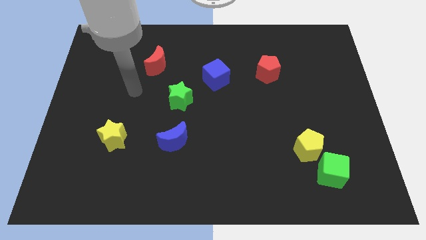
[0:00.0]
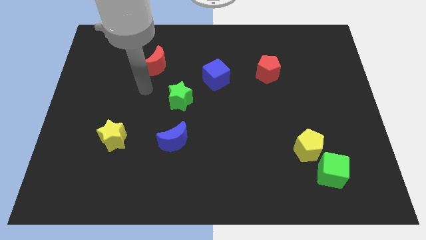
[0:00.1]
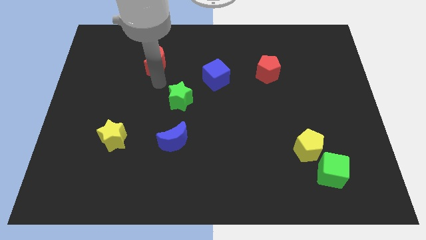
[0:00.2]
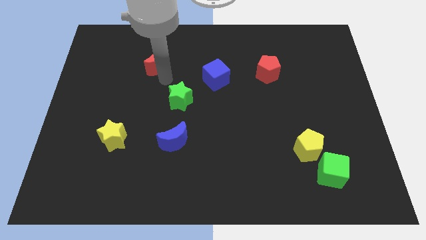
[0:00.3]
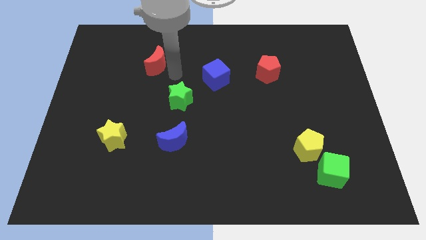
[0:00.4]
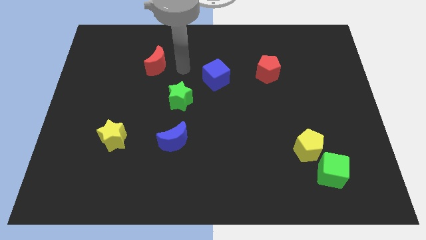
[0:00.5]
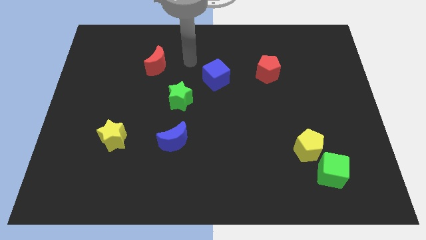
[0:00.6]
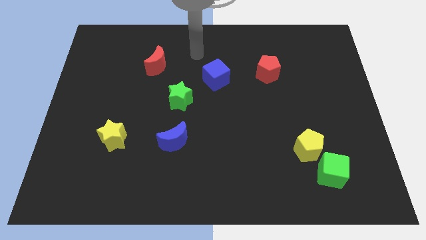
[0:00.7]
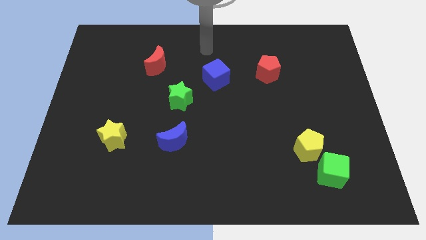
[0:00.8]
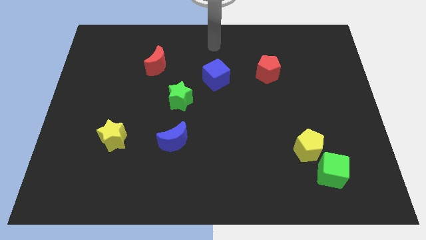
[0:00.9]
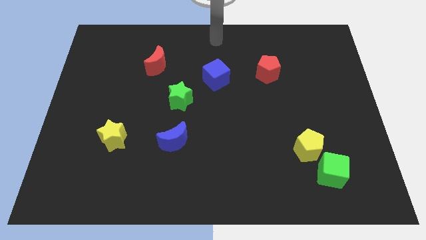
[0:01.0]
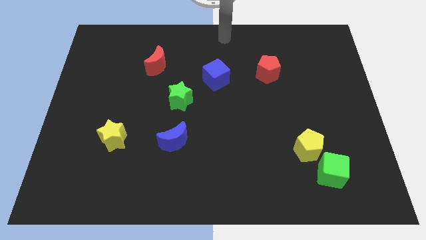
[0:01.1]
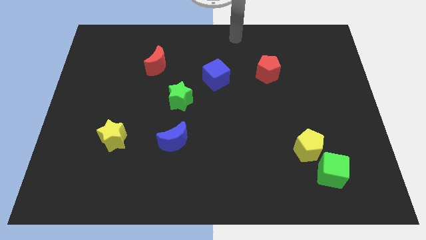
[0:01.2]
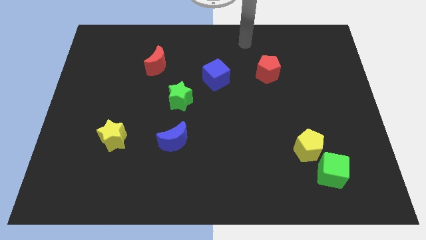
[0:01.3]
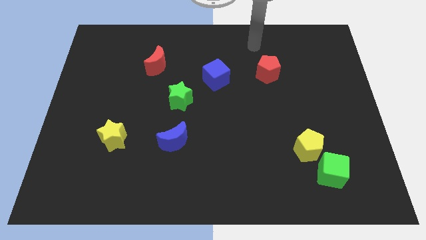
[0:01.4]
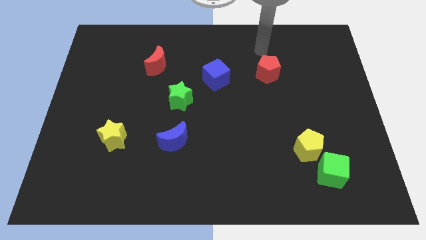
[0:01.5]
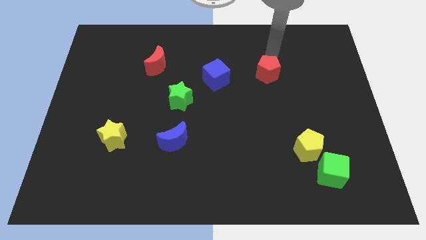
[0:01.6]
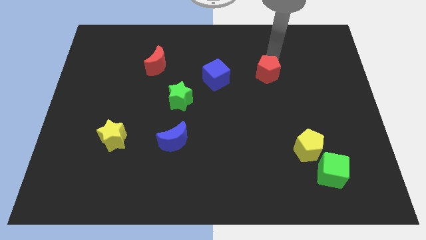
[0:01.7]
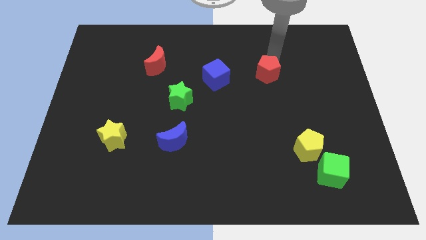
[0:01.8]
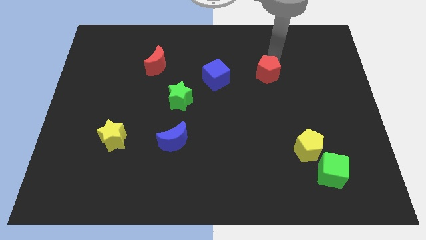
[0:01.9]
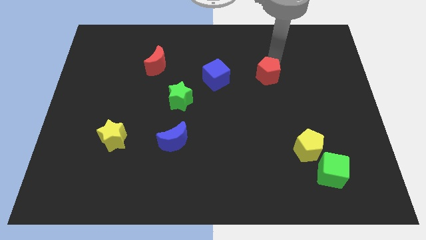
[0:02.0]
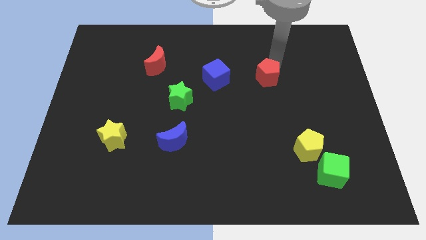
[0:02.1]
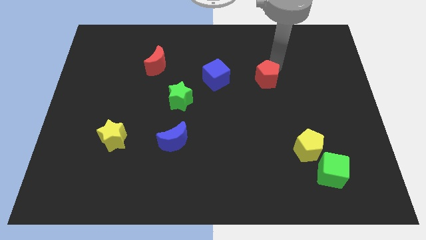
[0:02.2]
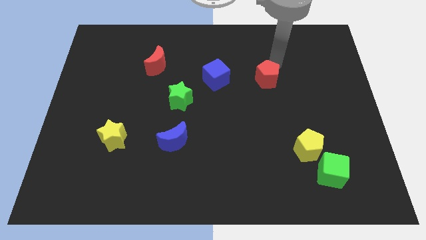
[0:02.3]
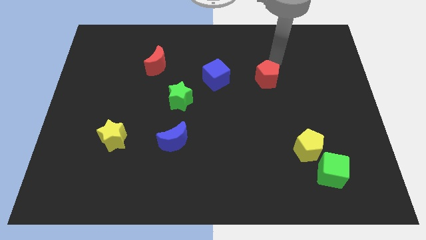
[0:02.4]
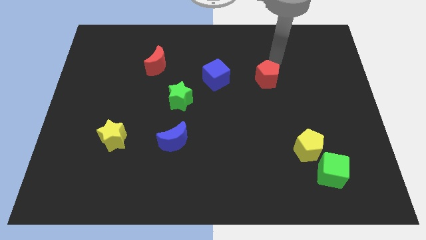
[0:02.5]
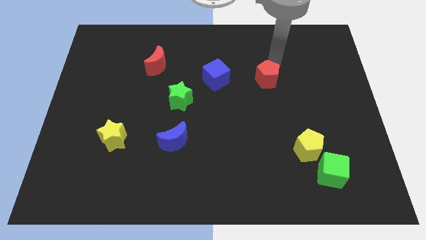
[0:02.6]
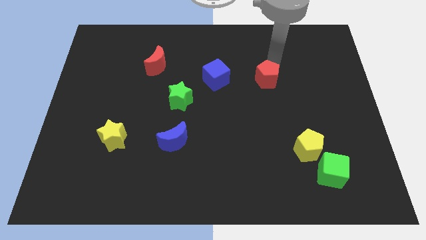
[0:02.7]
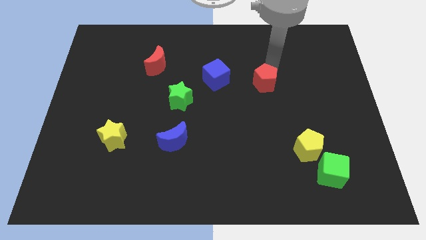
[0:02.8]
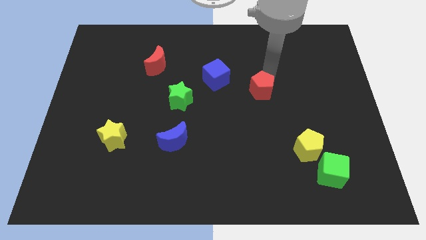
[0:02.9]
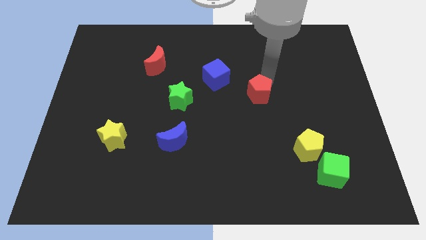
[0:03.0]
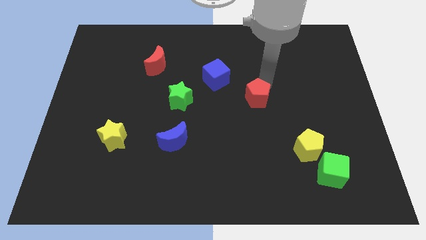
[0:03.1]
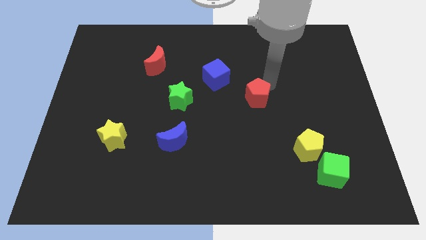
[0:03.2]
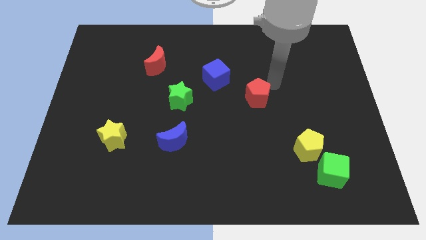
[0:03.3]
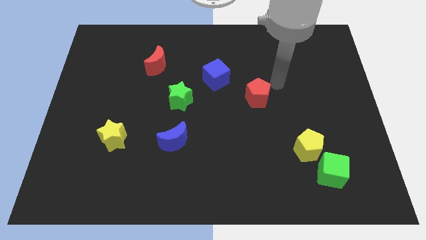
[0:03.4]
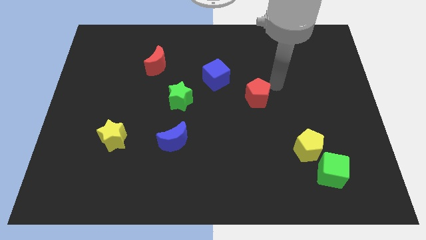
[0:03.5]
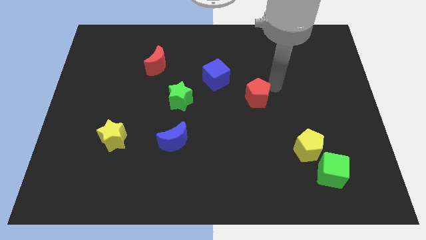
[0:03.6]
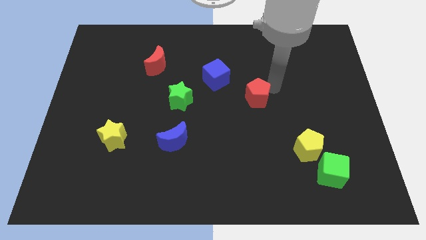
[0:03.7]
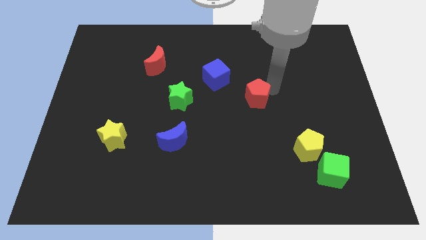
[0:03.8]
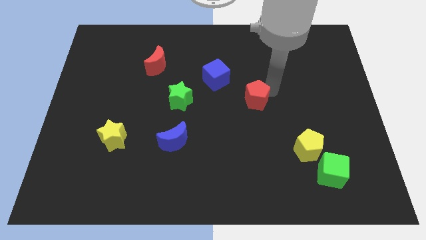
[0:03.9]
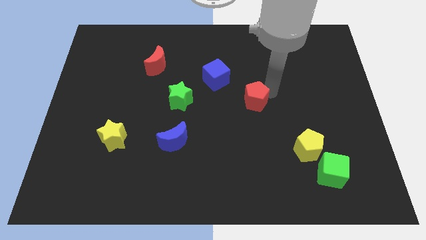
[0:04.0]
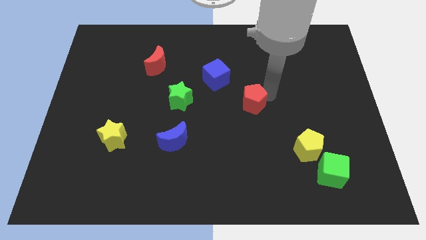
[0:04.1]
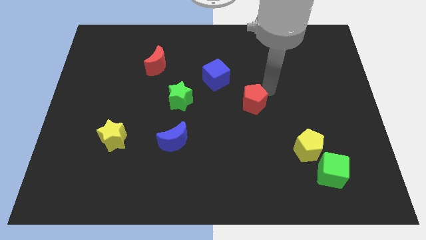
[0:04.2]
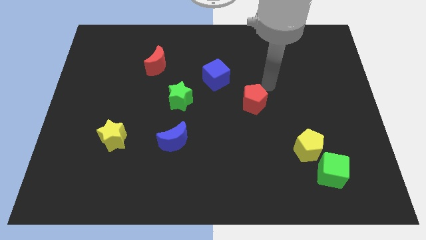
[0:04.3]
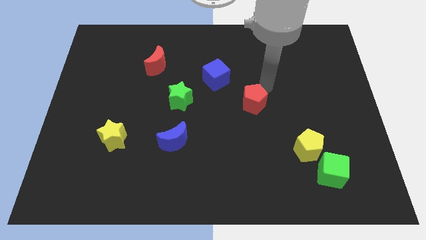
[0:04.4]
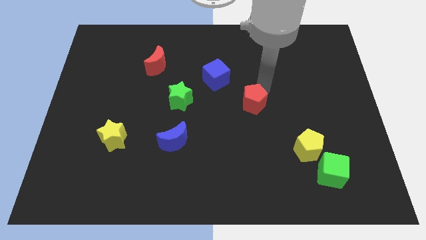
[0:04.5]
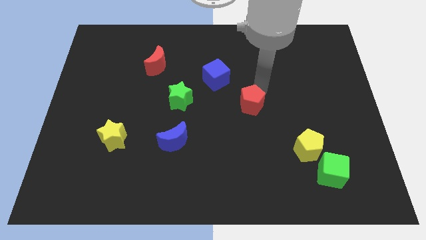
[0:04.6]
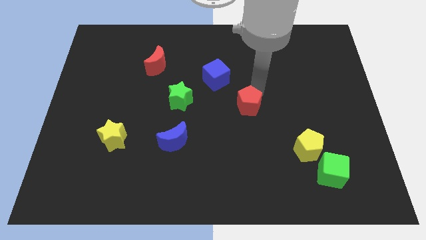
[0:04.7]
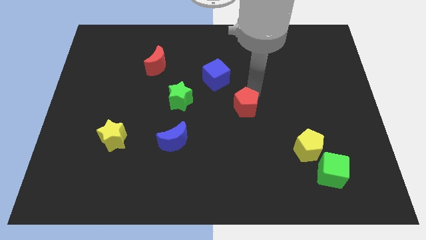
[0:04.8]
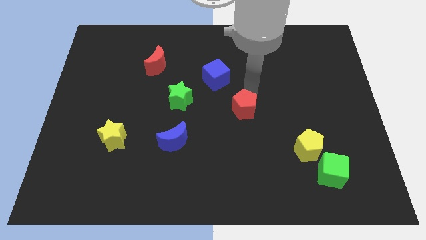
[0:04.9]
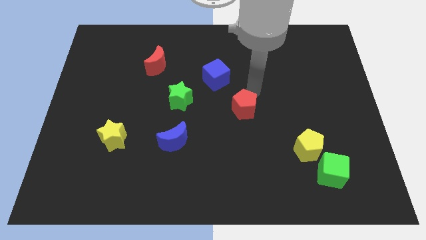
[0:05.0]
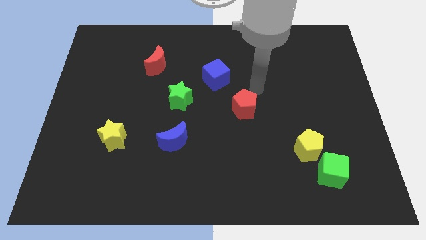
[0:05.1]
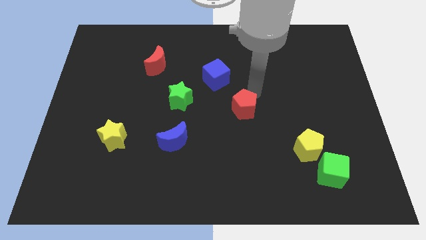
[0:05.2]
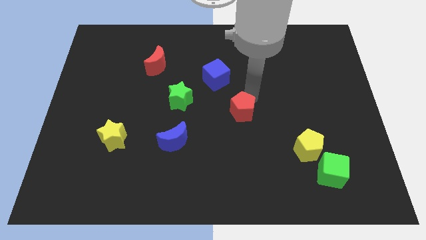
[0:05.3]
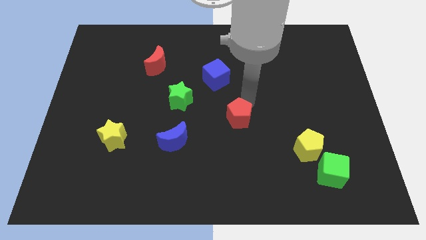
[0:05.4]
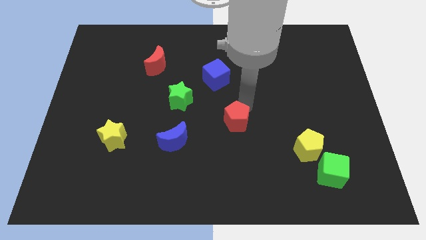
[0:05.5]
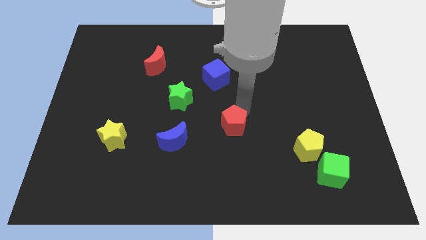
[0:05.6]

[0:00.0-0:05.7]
put the red pentagon just right of the blue moon

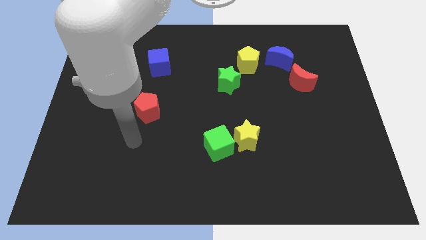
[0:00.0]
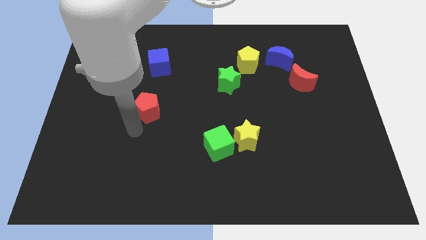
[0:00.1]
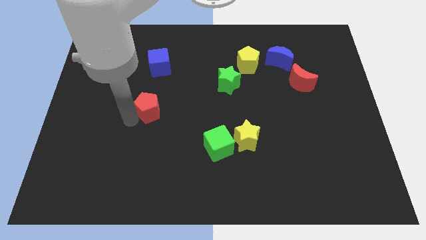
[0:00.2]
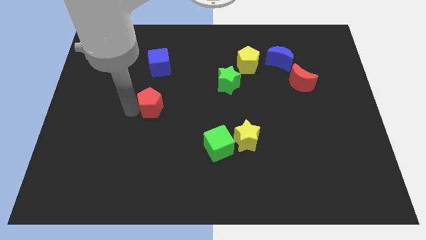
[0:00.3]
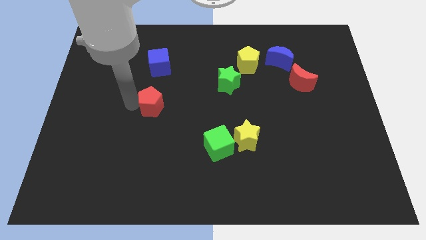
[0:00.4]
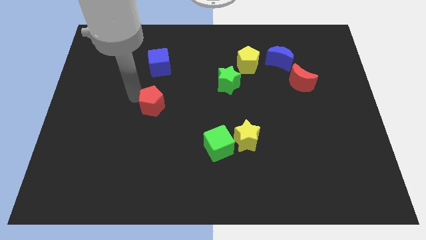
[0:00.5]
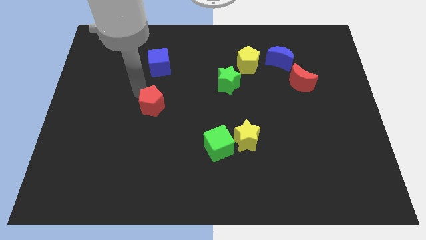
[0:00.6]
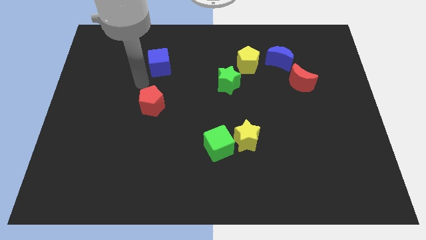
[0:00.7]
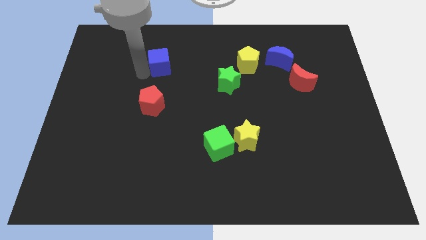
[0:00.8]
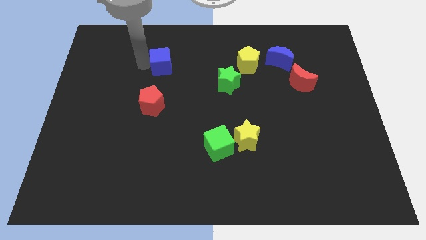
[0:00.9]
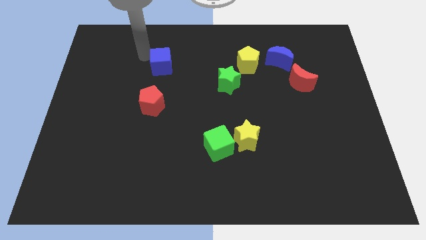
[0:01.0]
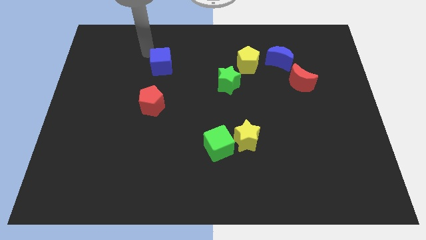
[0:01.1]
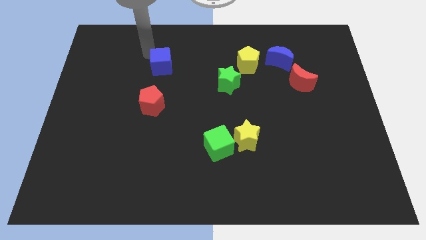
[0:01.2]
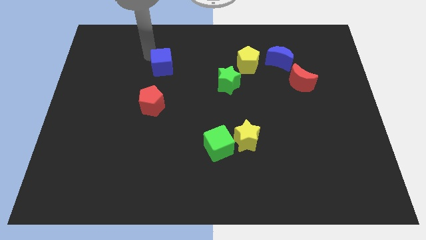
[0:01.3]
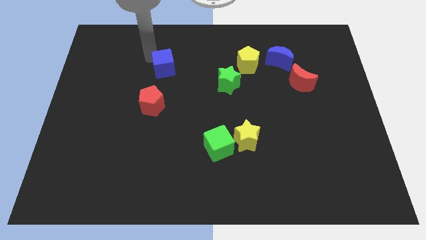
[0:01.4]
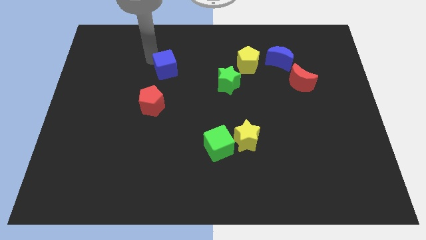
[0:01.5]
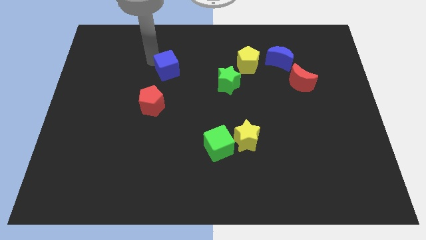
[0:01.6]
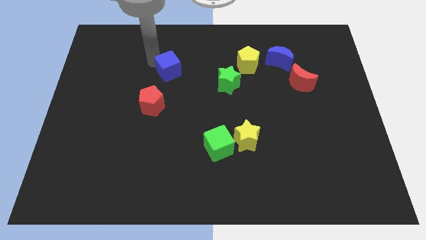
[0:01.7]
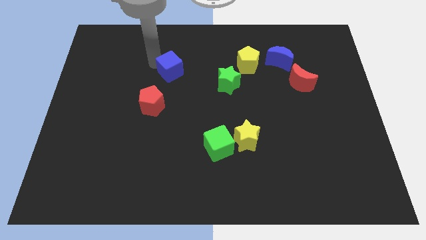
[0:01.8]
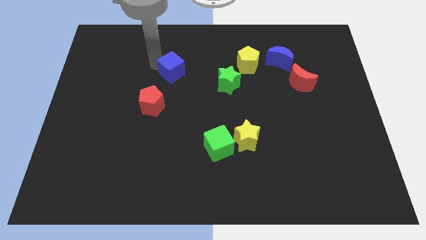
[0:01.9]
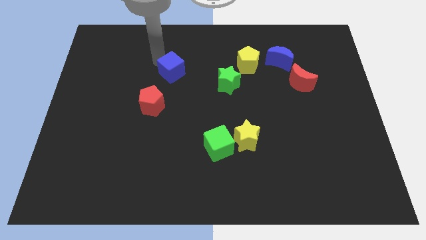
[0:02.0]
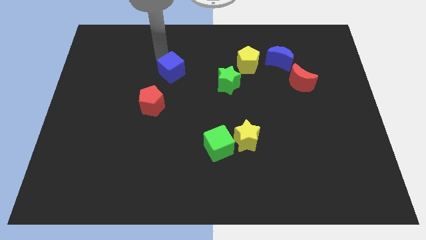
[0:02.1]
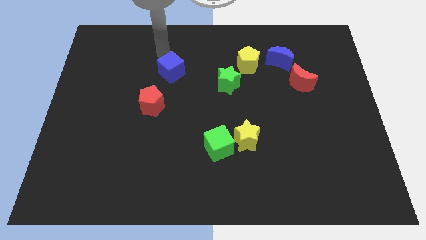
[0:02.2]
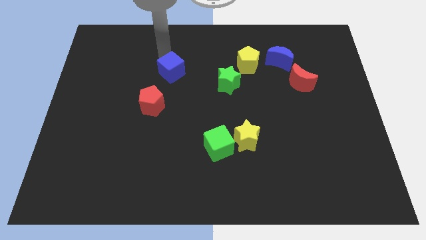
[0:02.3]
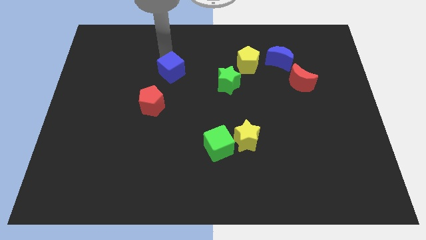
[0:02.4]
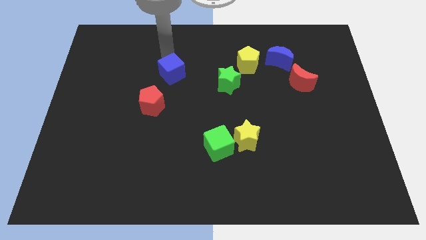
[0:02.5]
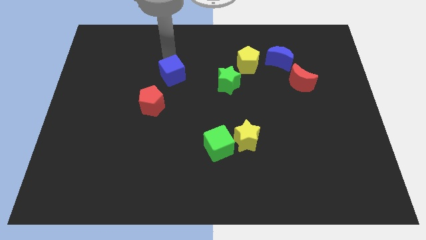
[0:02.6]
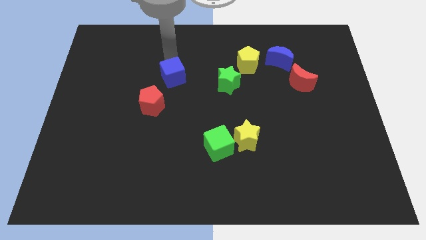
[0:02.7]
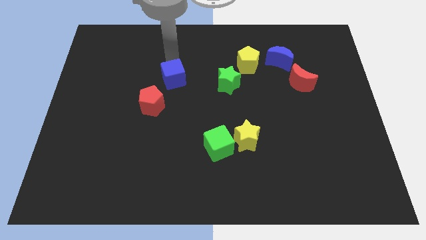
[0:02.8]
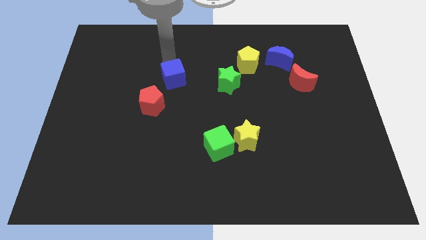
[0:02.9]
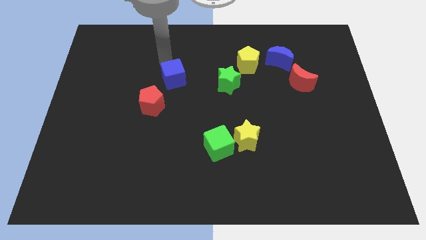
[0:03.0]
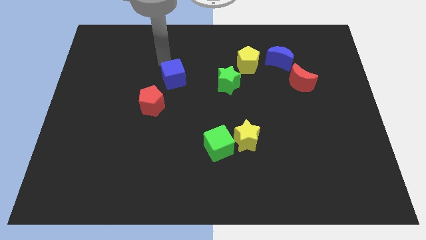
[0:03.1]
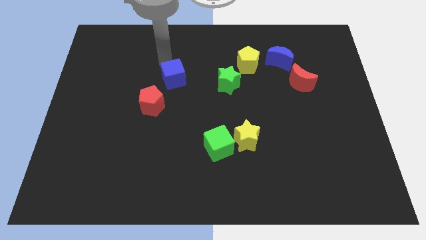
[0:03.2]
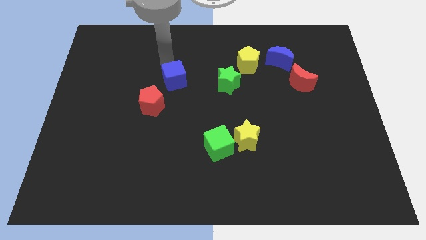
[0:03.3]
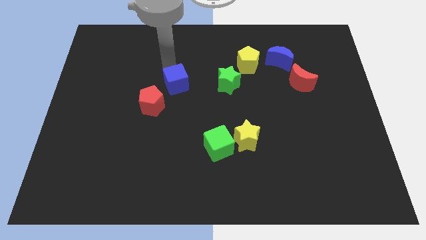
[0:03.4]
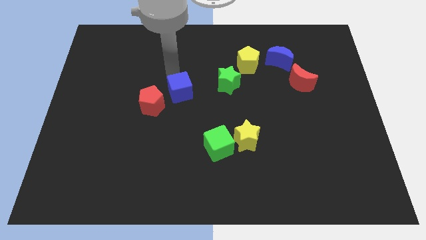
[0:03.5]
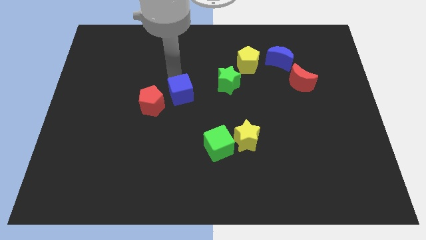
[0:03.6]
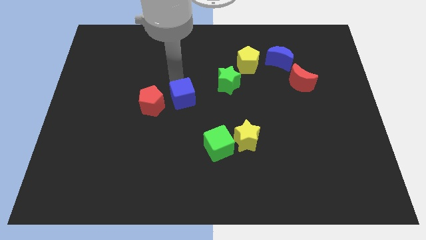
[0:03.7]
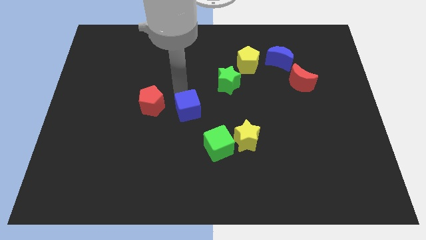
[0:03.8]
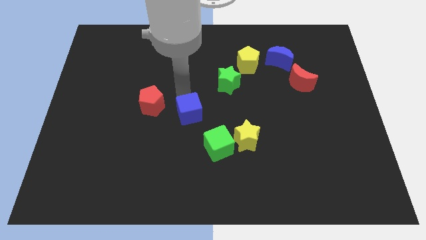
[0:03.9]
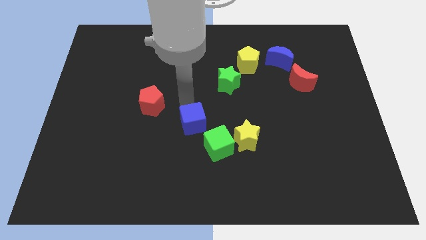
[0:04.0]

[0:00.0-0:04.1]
put the blue cube left of the yellow star
